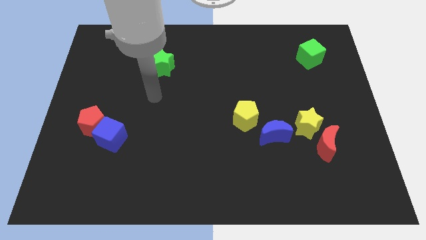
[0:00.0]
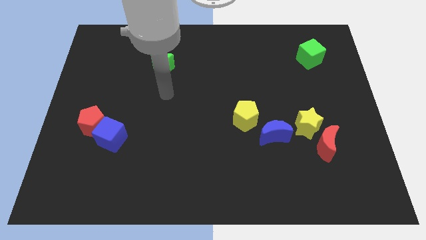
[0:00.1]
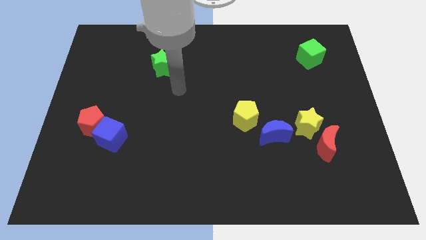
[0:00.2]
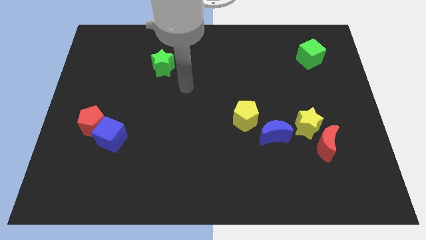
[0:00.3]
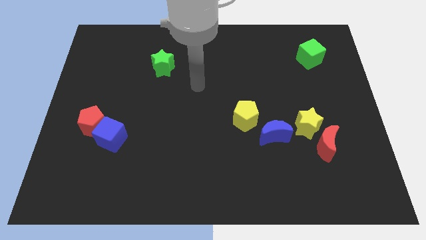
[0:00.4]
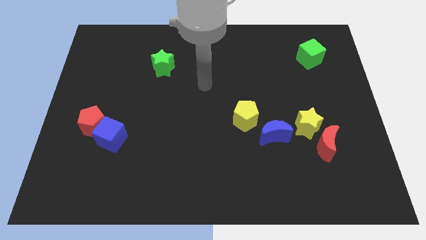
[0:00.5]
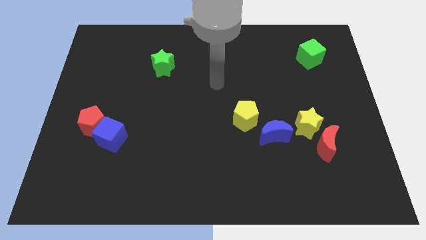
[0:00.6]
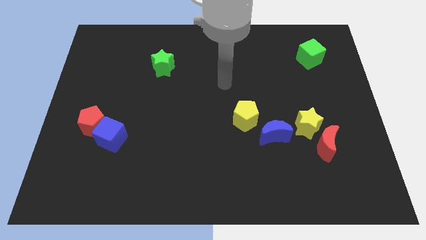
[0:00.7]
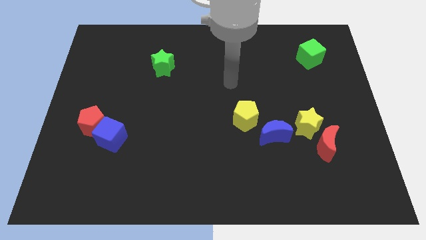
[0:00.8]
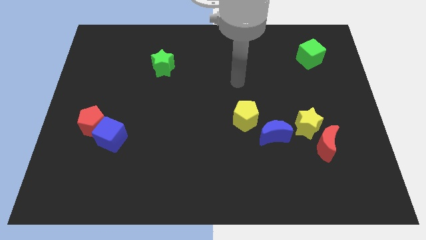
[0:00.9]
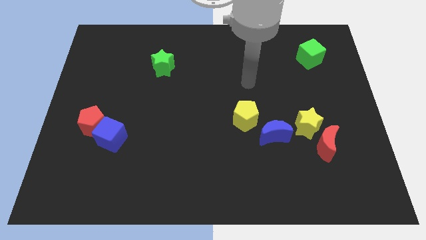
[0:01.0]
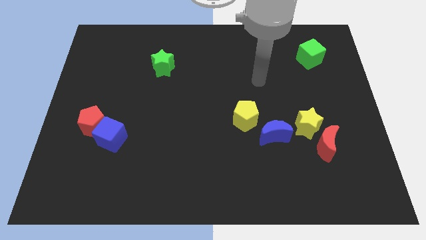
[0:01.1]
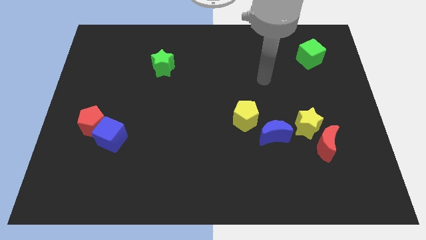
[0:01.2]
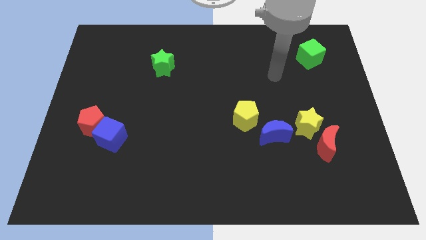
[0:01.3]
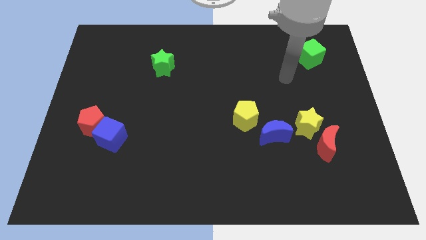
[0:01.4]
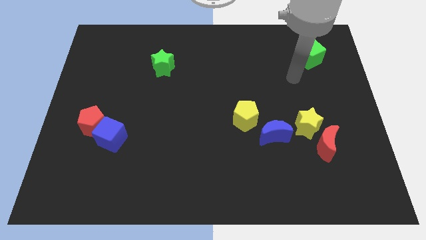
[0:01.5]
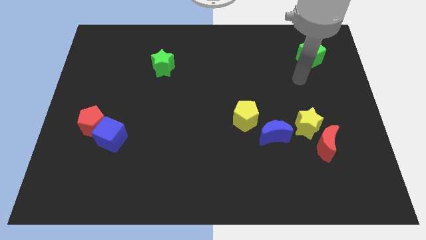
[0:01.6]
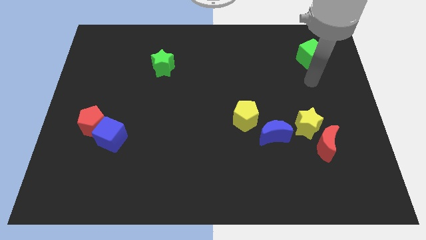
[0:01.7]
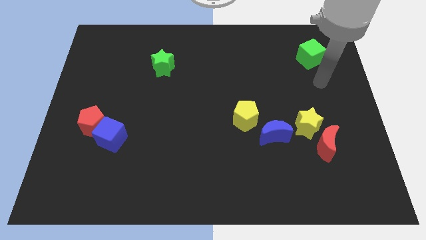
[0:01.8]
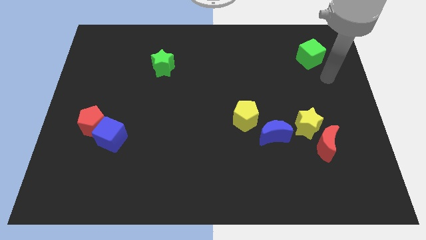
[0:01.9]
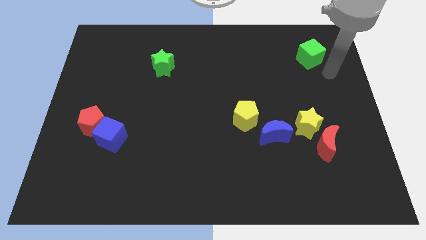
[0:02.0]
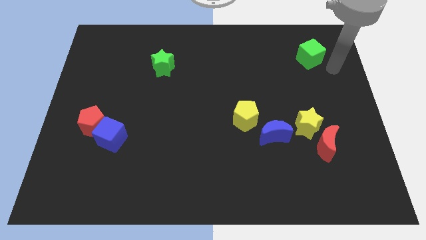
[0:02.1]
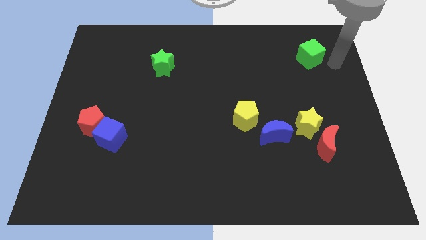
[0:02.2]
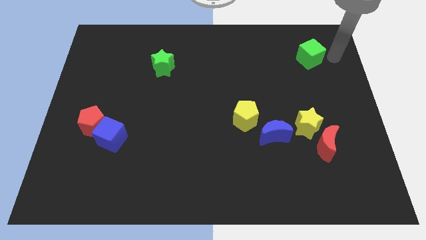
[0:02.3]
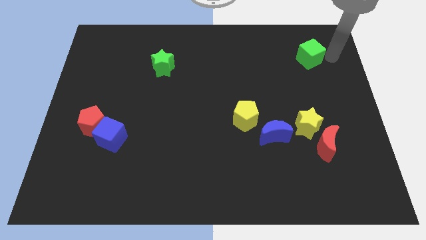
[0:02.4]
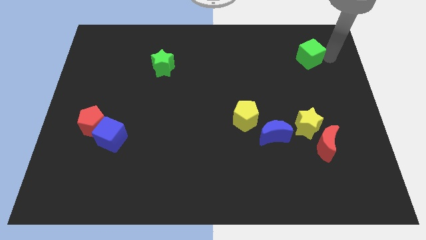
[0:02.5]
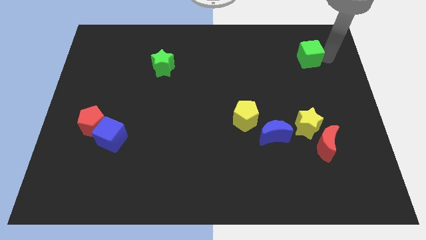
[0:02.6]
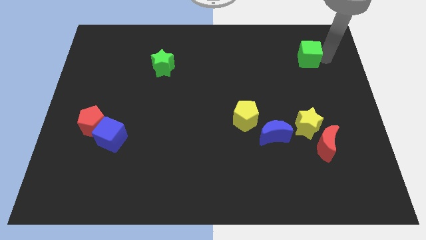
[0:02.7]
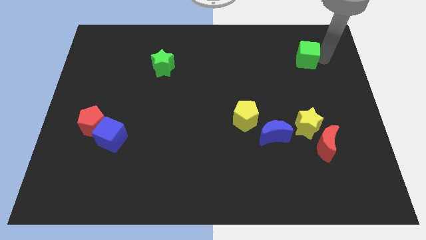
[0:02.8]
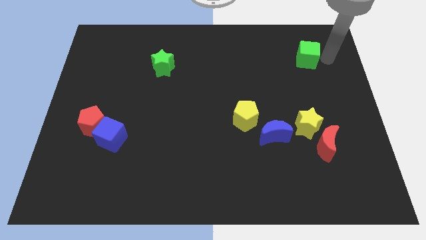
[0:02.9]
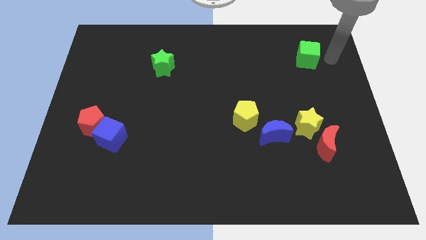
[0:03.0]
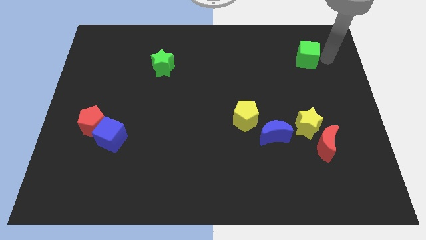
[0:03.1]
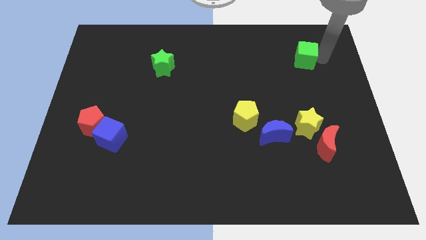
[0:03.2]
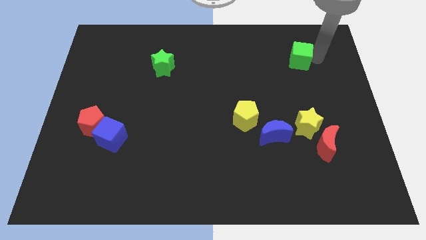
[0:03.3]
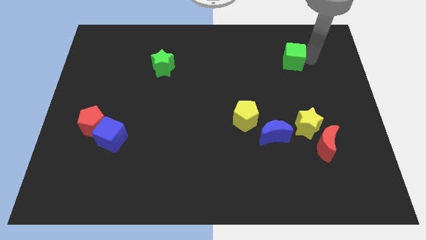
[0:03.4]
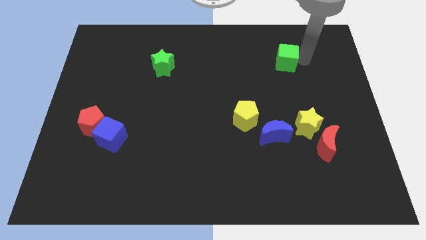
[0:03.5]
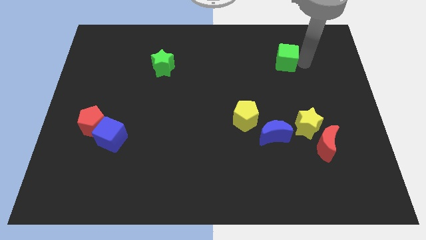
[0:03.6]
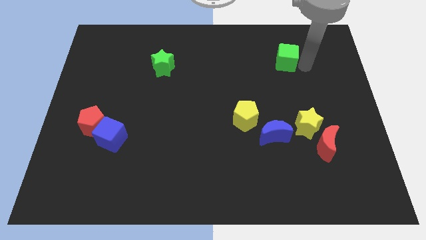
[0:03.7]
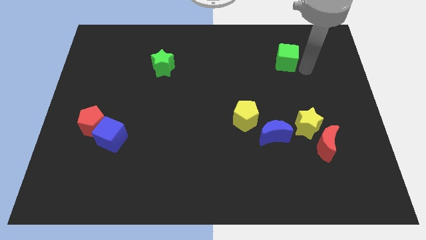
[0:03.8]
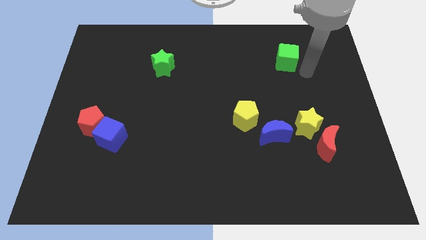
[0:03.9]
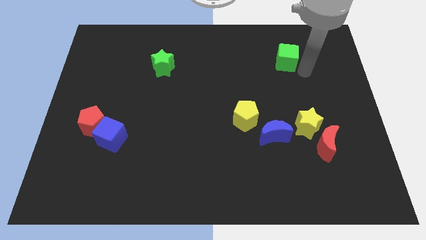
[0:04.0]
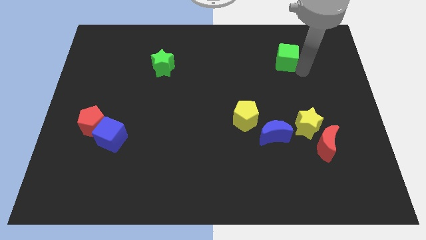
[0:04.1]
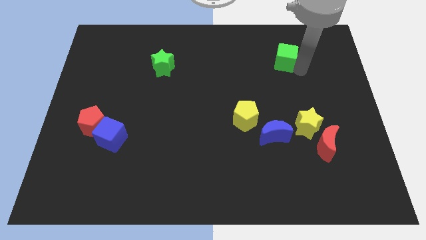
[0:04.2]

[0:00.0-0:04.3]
push the green cube left a bit

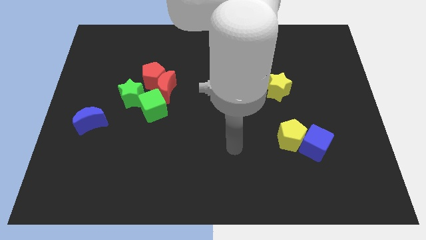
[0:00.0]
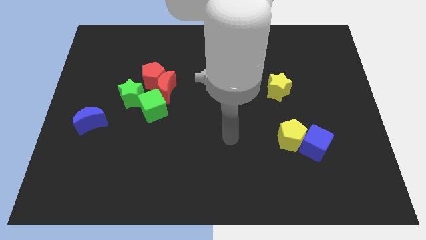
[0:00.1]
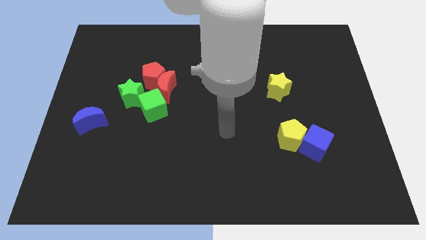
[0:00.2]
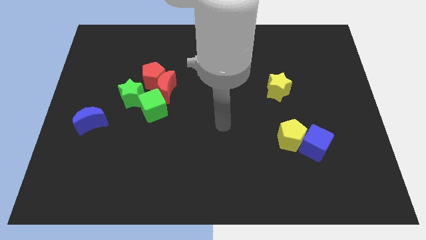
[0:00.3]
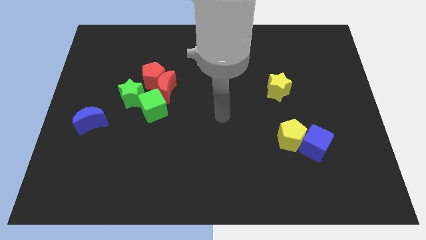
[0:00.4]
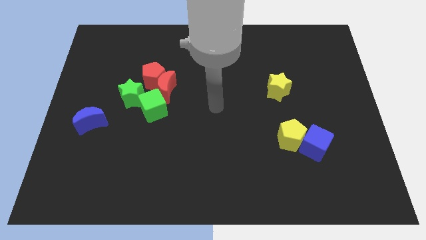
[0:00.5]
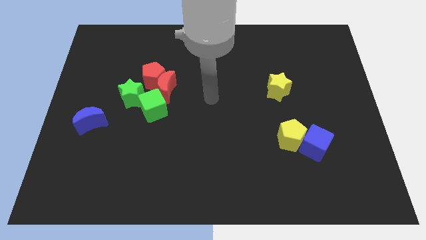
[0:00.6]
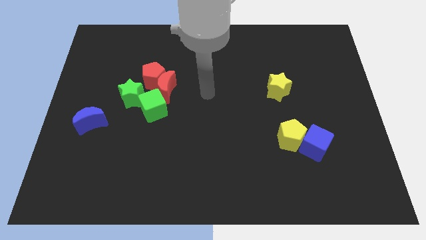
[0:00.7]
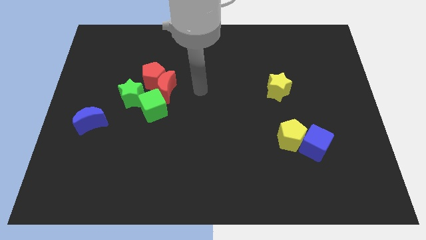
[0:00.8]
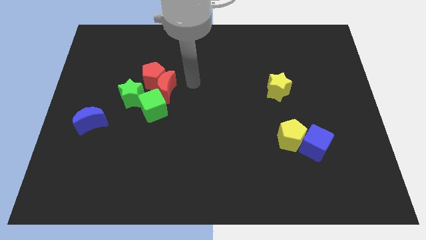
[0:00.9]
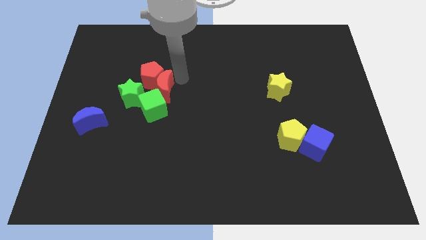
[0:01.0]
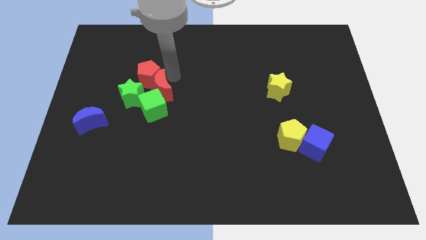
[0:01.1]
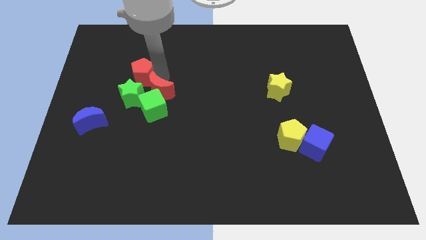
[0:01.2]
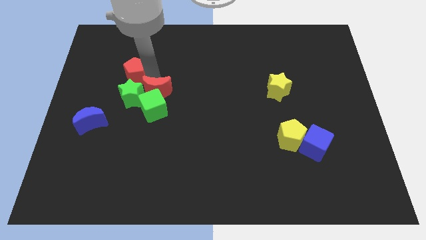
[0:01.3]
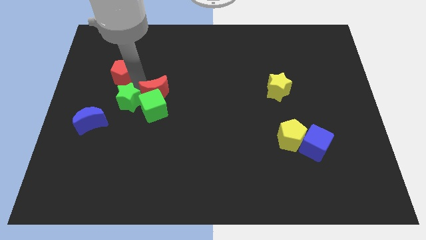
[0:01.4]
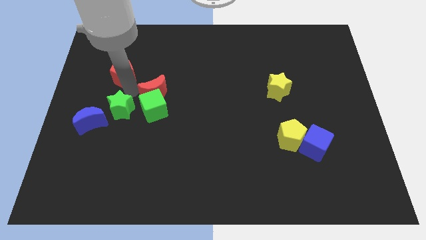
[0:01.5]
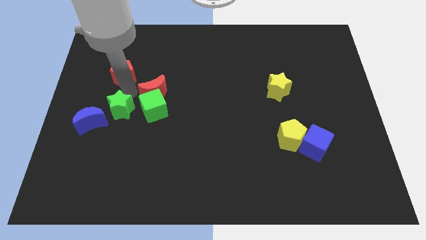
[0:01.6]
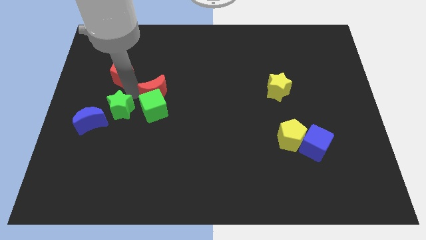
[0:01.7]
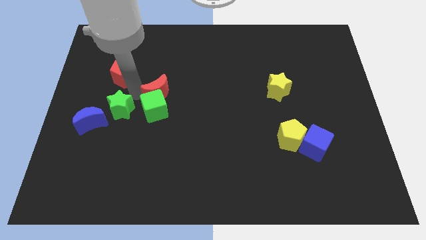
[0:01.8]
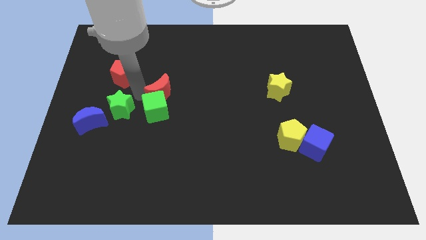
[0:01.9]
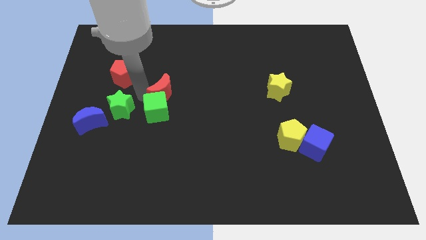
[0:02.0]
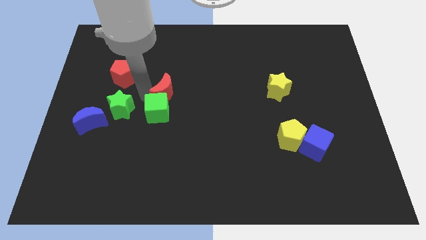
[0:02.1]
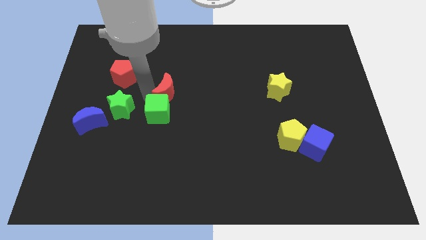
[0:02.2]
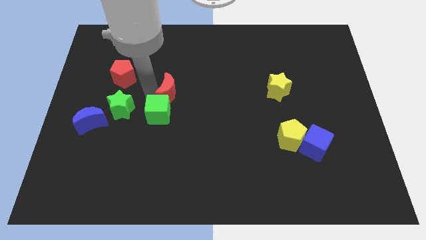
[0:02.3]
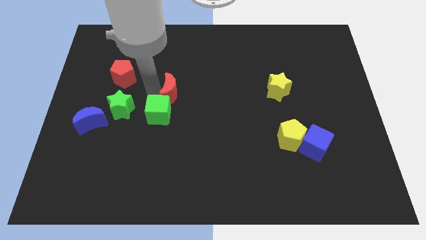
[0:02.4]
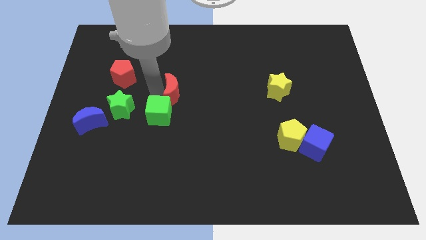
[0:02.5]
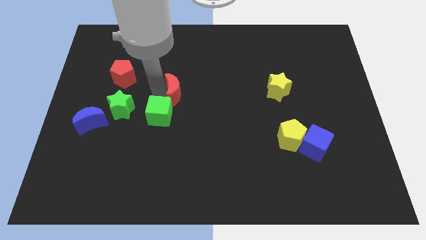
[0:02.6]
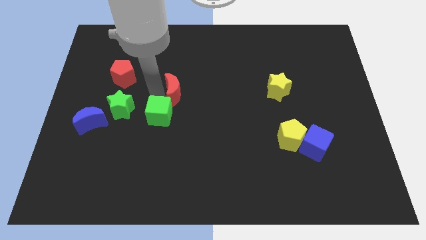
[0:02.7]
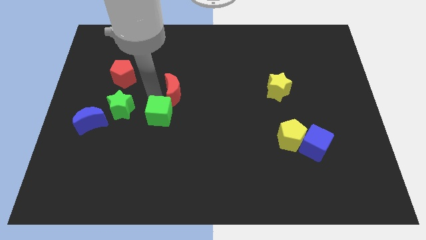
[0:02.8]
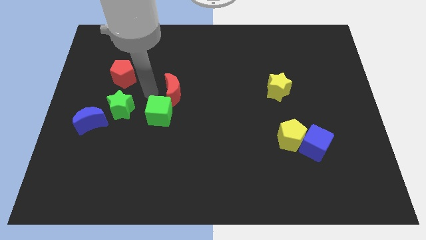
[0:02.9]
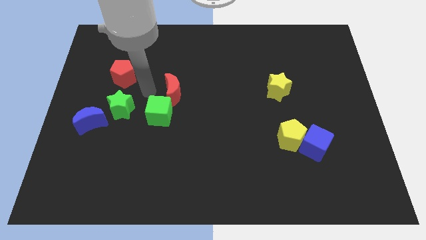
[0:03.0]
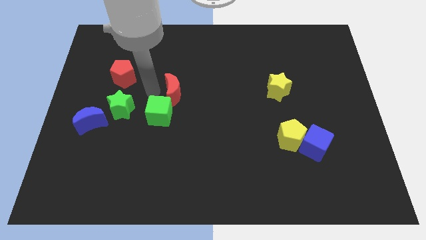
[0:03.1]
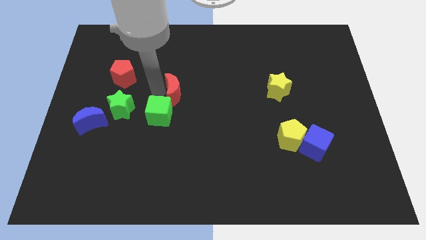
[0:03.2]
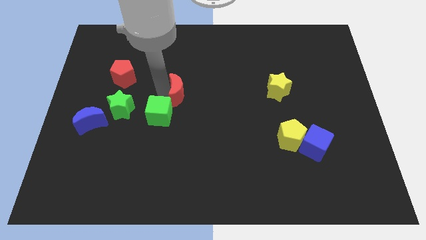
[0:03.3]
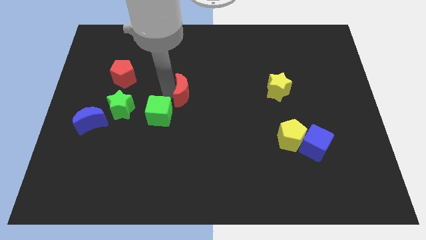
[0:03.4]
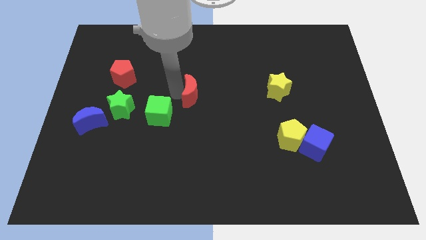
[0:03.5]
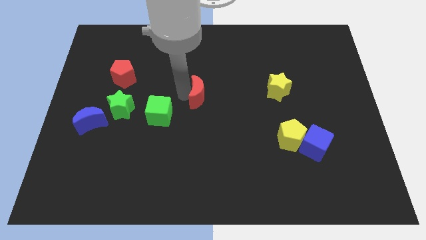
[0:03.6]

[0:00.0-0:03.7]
slightly move the red moon right
